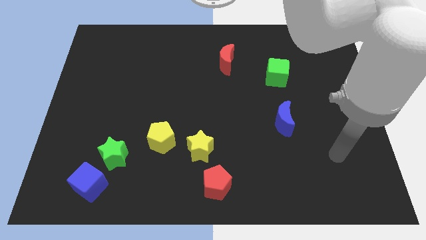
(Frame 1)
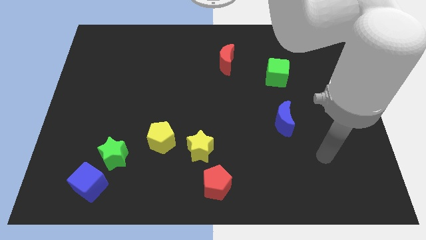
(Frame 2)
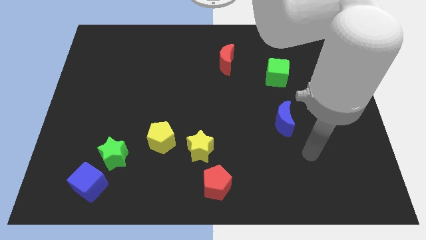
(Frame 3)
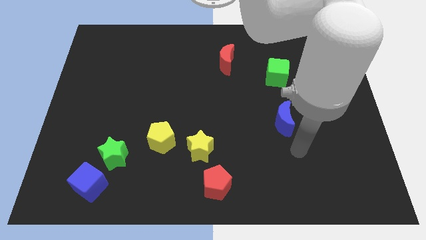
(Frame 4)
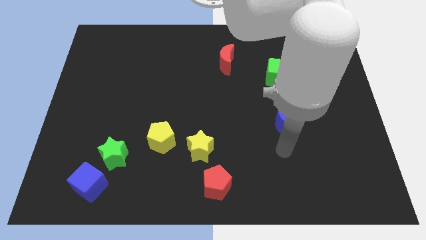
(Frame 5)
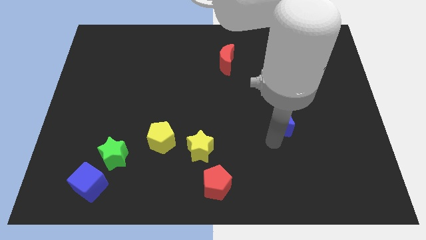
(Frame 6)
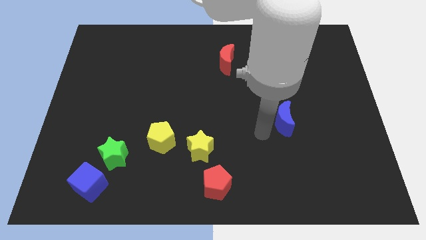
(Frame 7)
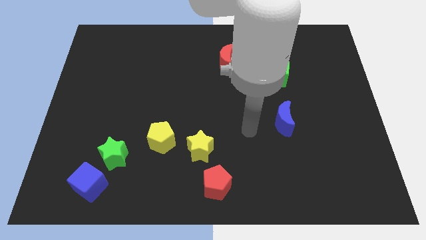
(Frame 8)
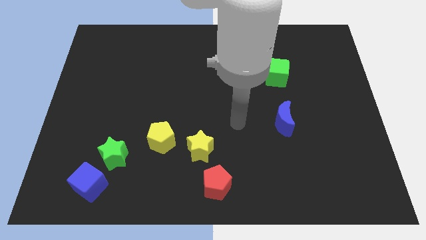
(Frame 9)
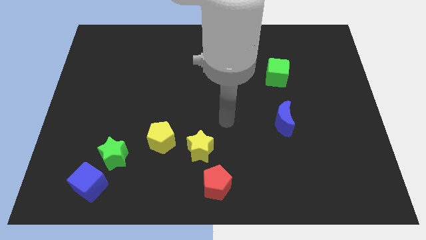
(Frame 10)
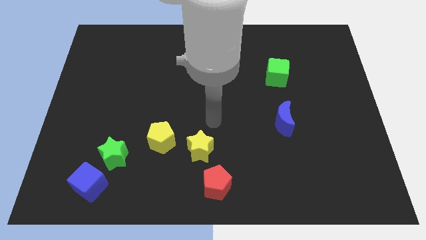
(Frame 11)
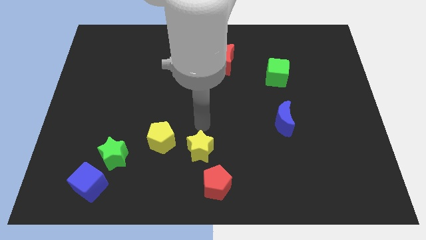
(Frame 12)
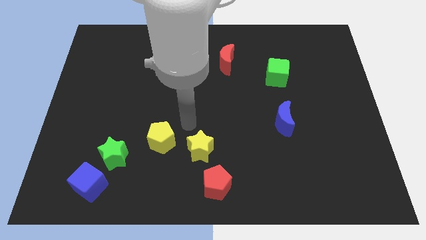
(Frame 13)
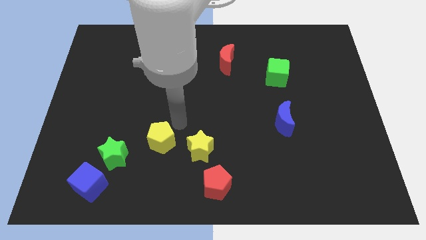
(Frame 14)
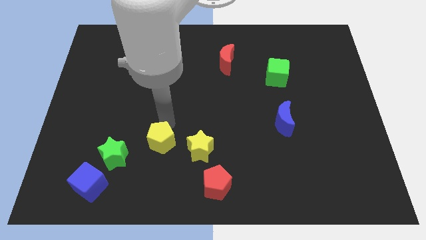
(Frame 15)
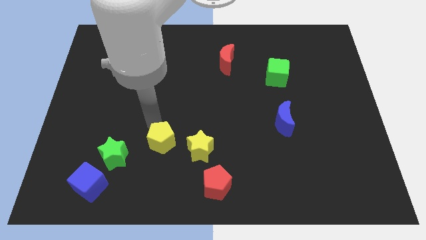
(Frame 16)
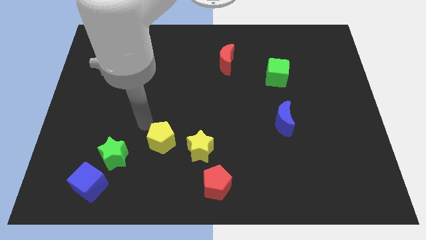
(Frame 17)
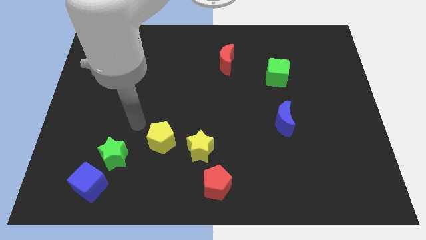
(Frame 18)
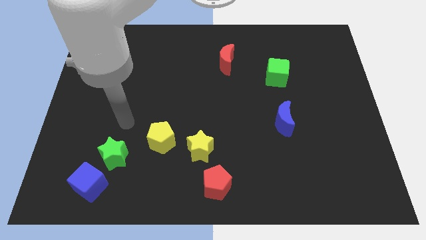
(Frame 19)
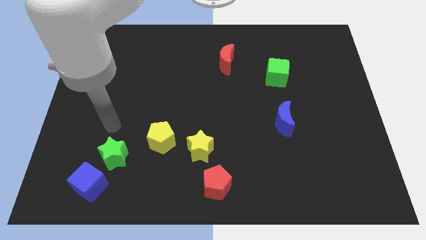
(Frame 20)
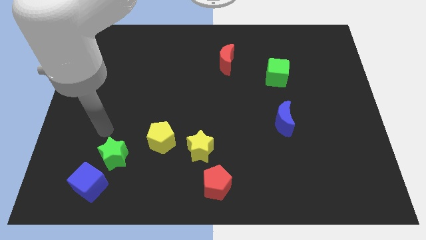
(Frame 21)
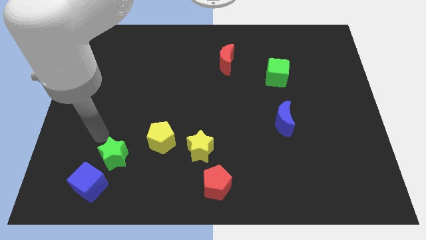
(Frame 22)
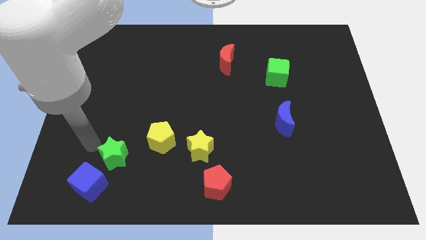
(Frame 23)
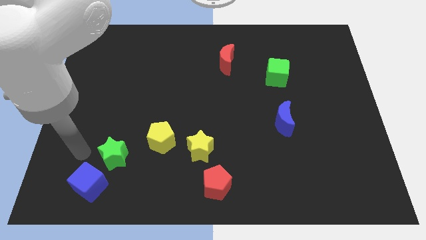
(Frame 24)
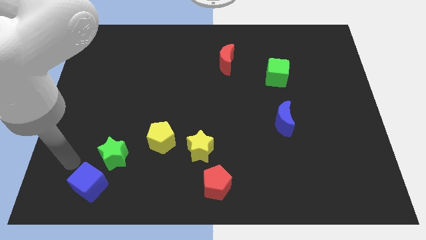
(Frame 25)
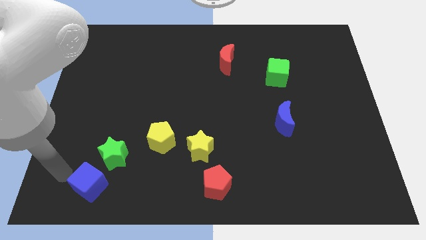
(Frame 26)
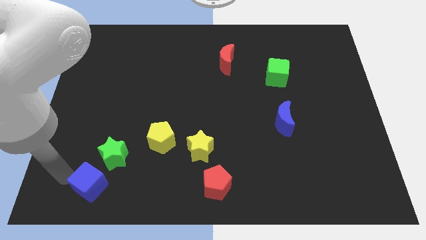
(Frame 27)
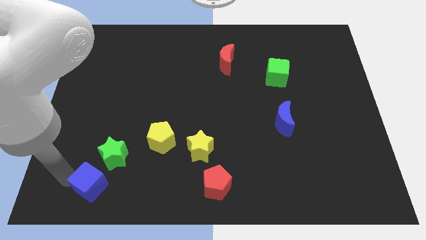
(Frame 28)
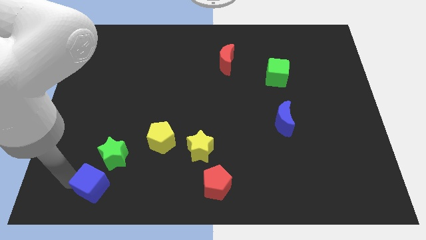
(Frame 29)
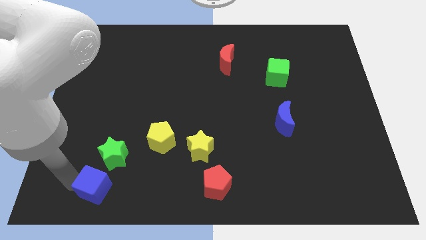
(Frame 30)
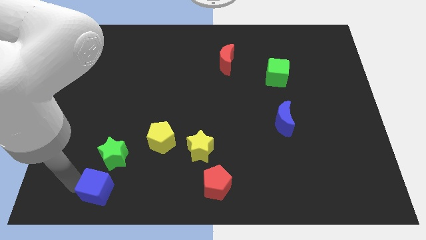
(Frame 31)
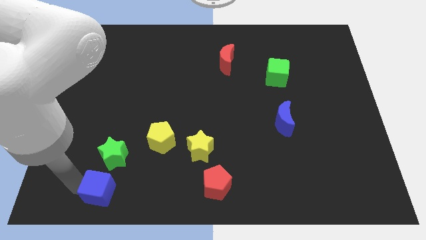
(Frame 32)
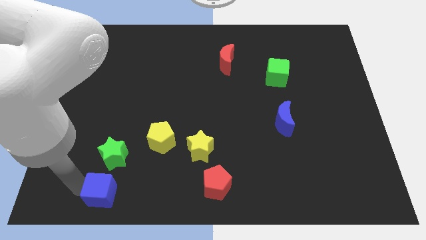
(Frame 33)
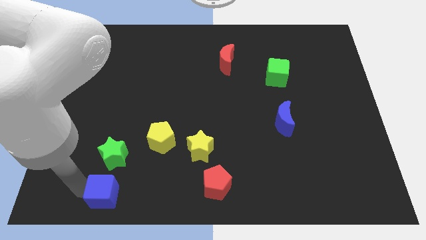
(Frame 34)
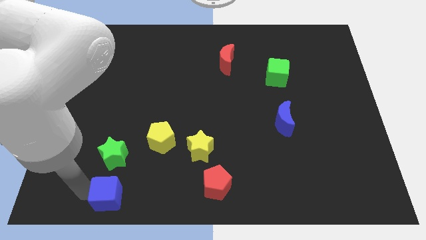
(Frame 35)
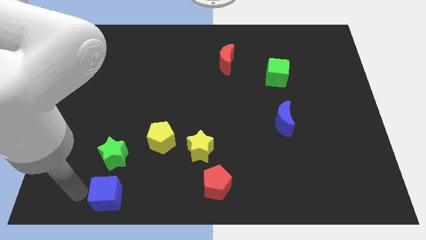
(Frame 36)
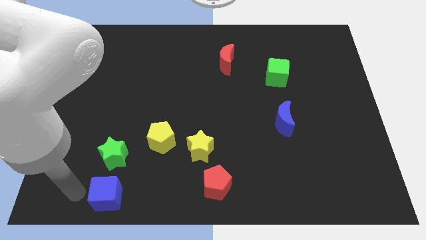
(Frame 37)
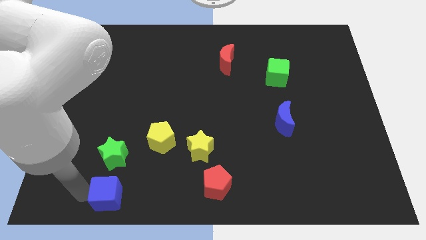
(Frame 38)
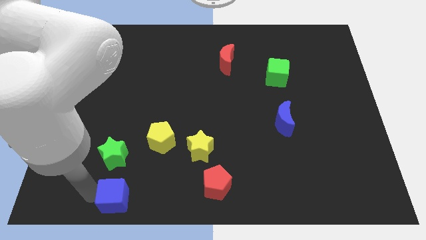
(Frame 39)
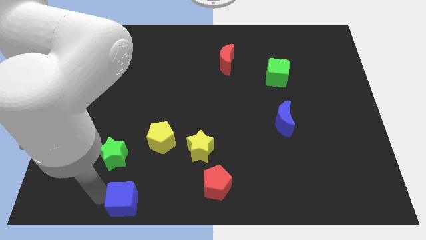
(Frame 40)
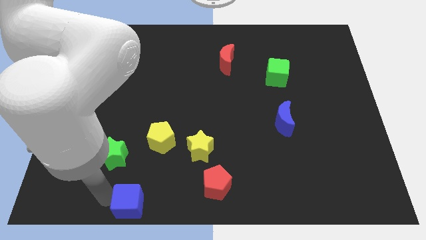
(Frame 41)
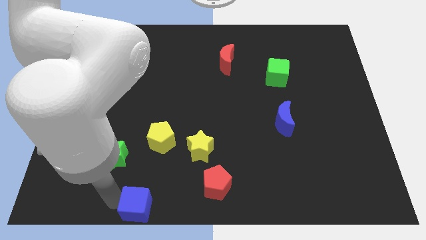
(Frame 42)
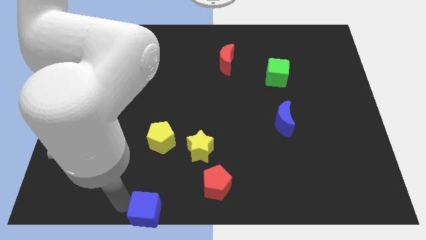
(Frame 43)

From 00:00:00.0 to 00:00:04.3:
move the blue cube to the bottom side

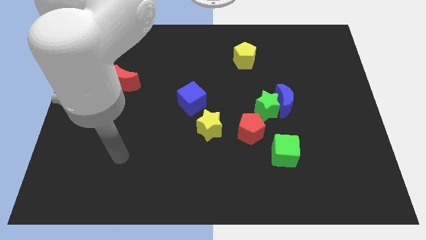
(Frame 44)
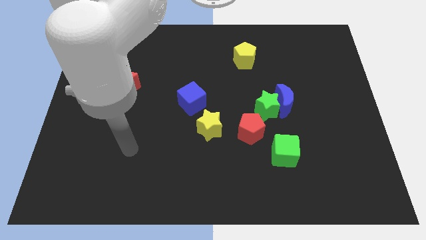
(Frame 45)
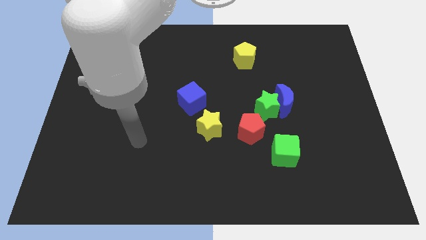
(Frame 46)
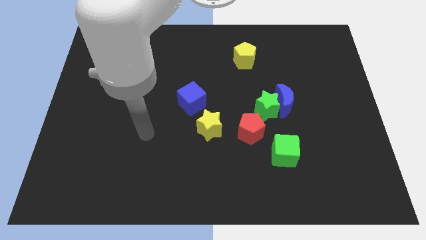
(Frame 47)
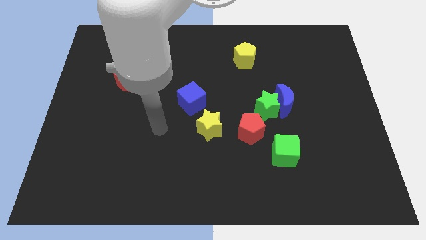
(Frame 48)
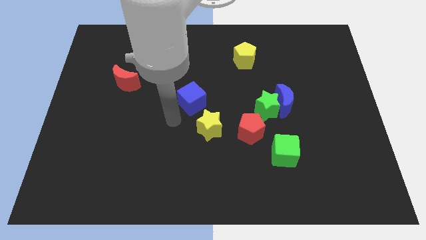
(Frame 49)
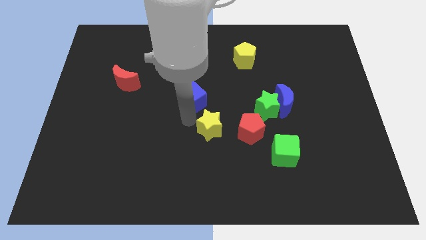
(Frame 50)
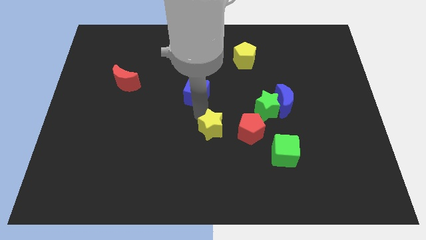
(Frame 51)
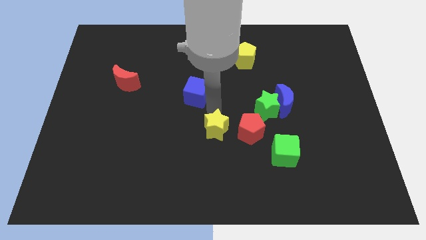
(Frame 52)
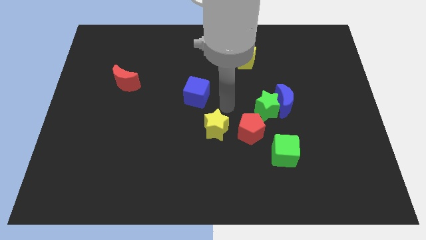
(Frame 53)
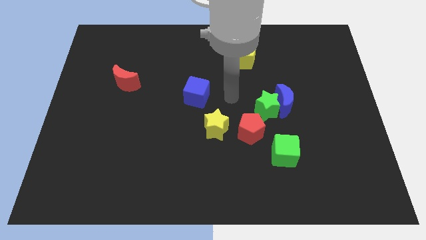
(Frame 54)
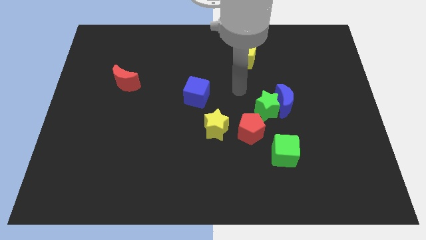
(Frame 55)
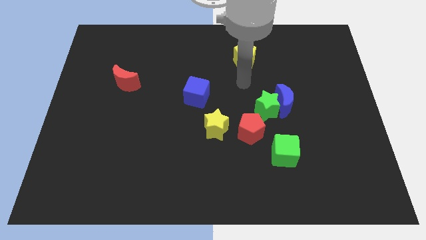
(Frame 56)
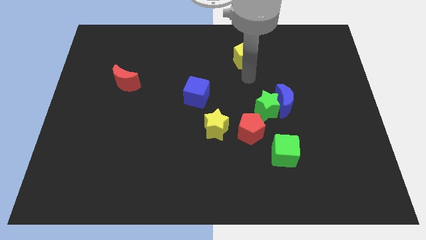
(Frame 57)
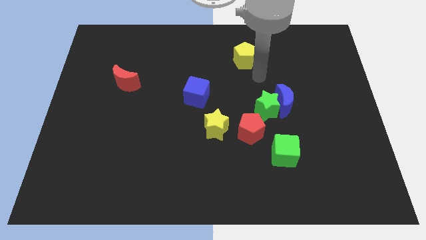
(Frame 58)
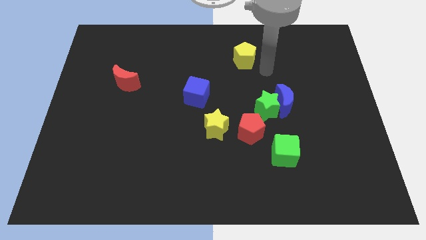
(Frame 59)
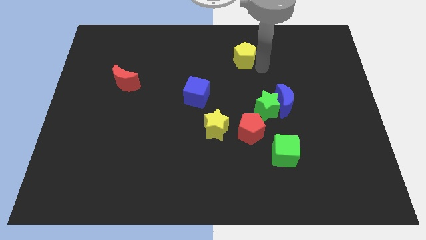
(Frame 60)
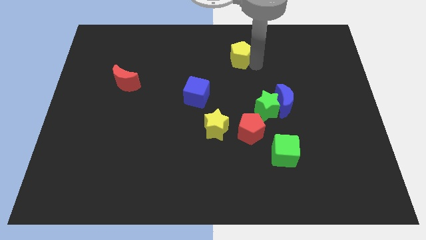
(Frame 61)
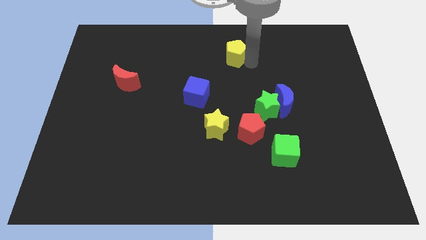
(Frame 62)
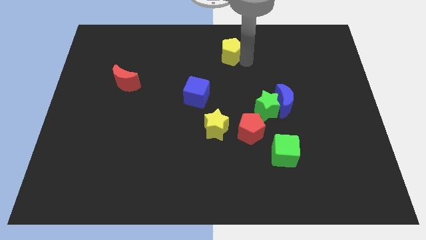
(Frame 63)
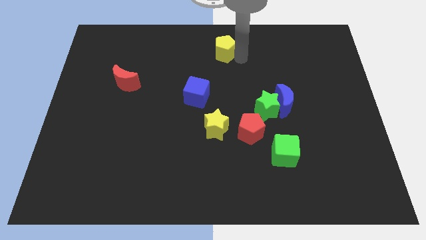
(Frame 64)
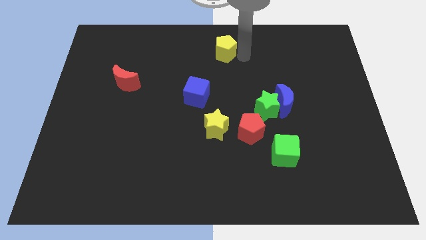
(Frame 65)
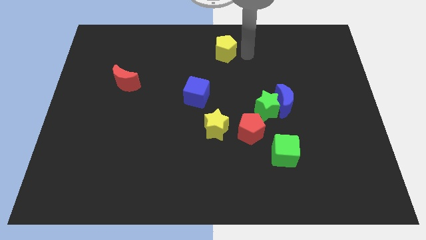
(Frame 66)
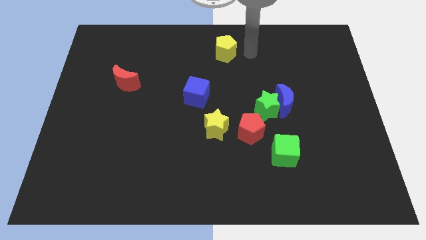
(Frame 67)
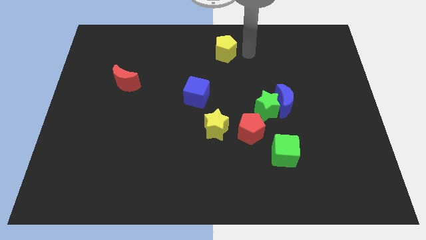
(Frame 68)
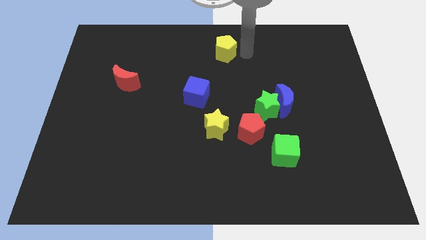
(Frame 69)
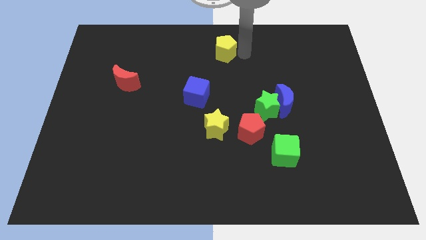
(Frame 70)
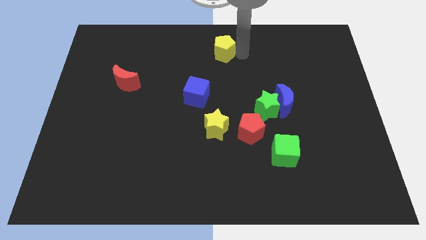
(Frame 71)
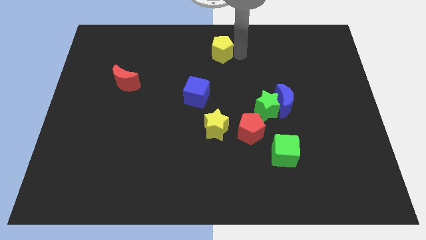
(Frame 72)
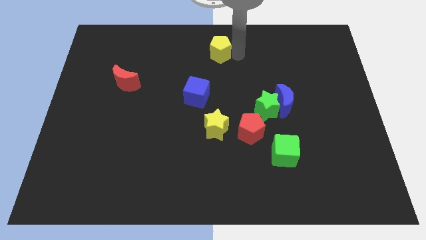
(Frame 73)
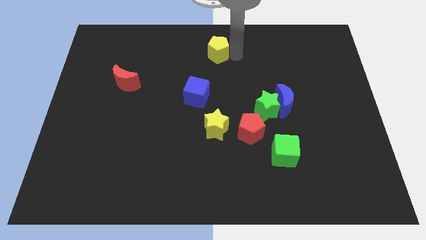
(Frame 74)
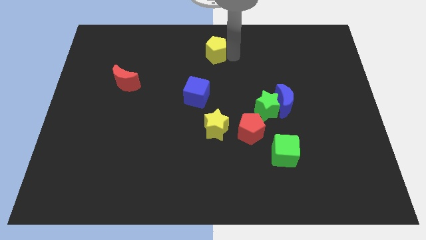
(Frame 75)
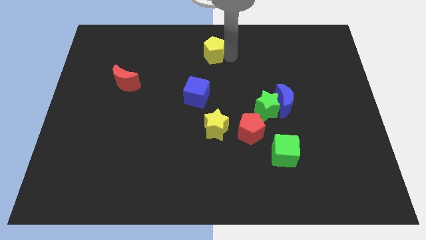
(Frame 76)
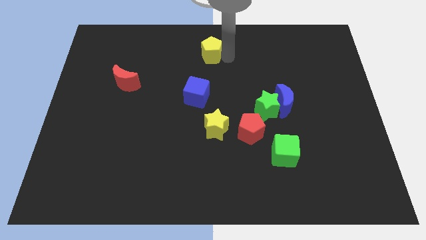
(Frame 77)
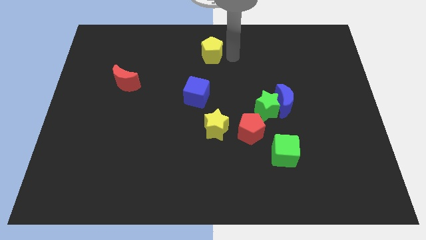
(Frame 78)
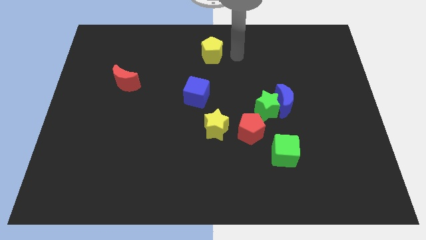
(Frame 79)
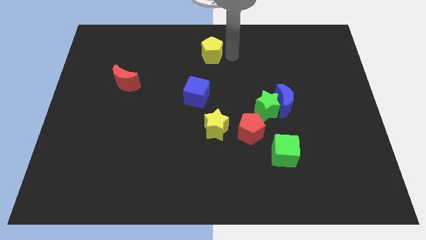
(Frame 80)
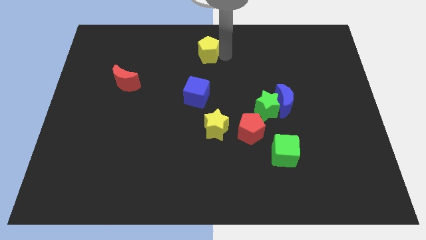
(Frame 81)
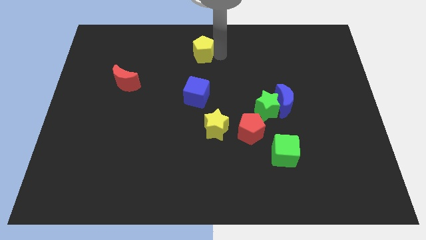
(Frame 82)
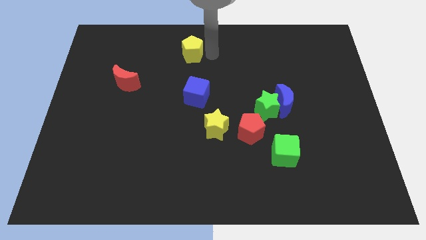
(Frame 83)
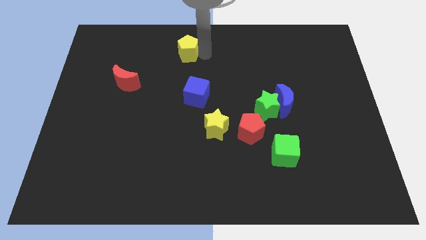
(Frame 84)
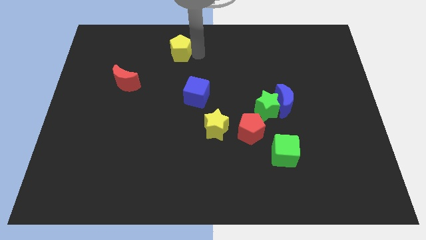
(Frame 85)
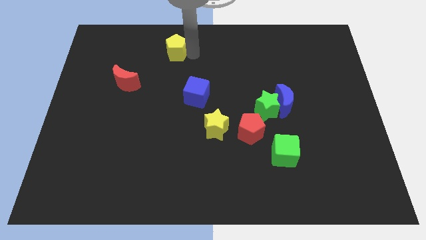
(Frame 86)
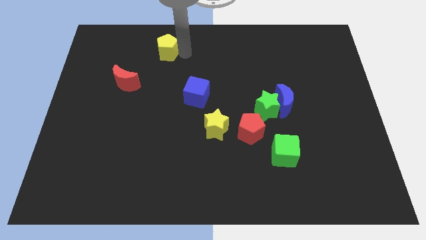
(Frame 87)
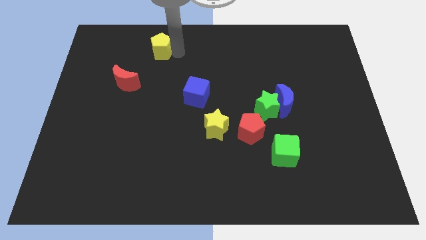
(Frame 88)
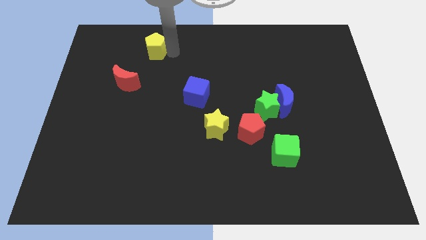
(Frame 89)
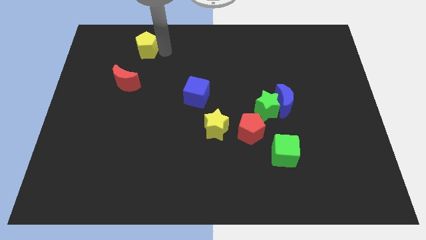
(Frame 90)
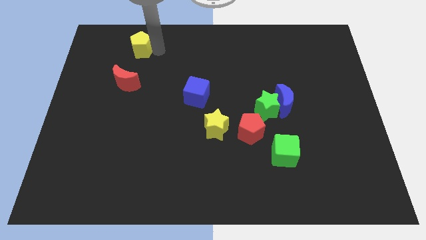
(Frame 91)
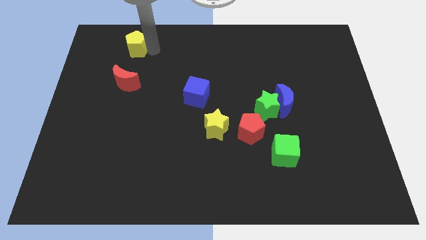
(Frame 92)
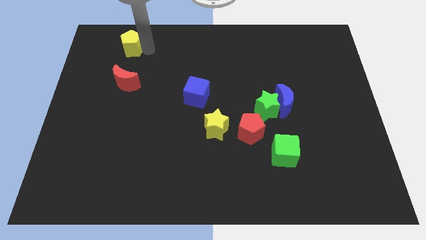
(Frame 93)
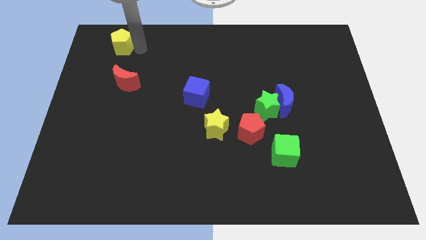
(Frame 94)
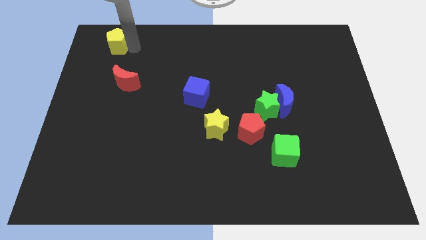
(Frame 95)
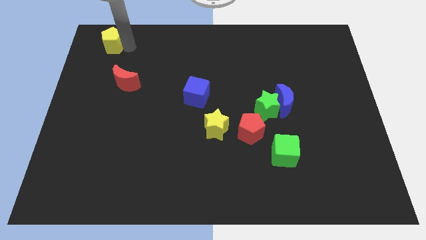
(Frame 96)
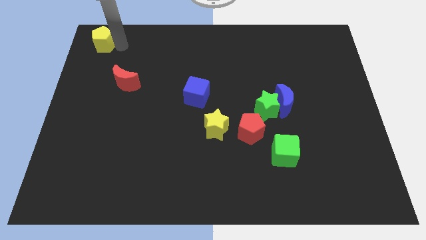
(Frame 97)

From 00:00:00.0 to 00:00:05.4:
push the yellow pentagon to the upper left corner
